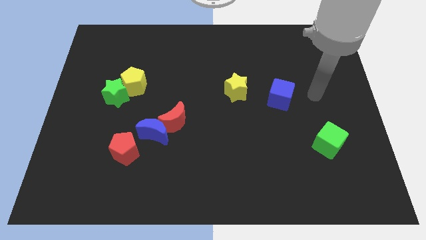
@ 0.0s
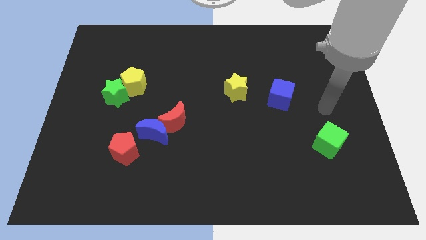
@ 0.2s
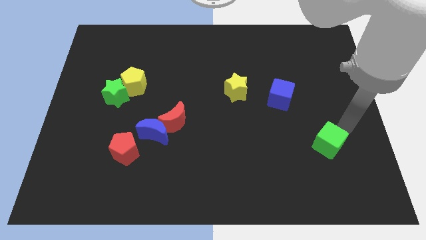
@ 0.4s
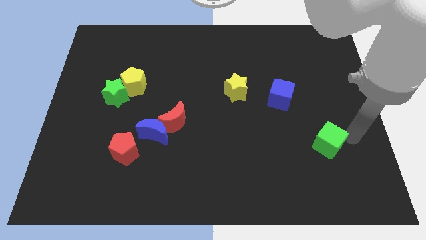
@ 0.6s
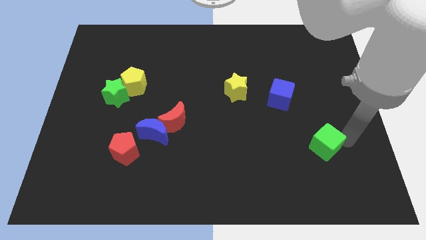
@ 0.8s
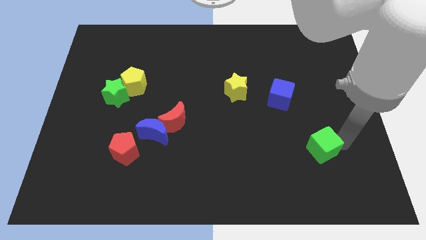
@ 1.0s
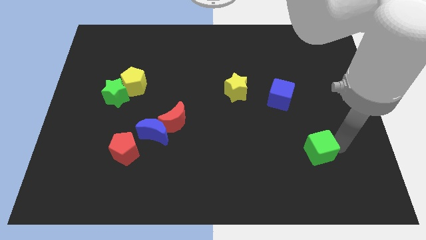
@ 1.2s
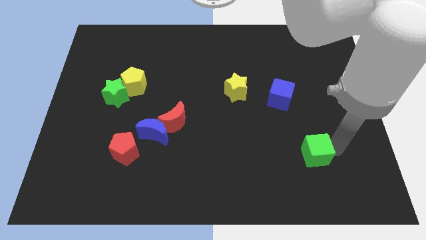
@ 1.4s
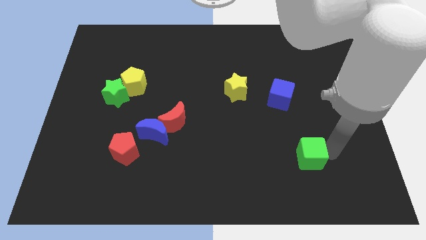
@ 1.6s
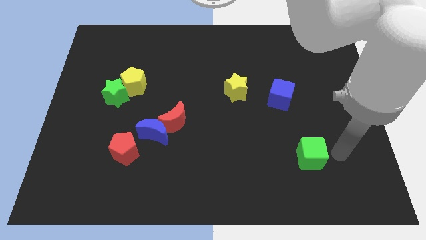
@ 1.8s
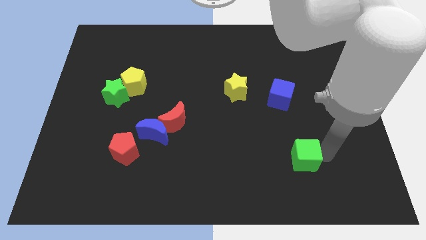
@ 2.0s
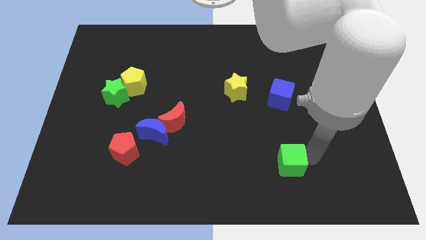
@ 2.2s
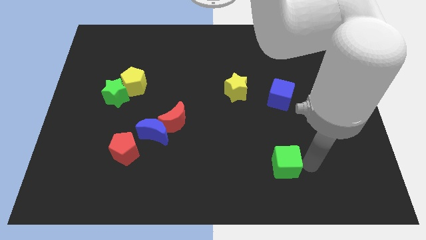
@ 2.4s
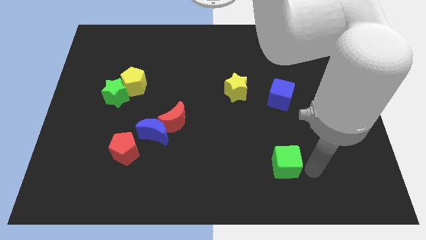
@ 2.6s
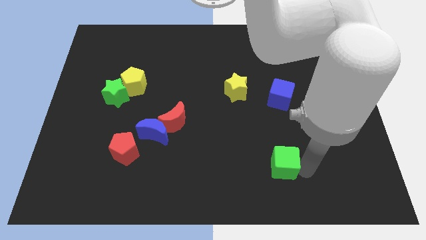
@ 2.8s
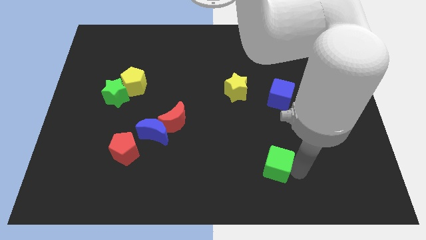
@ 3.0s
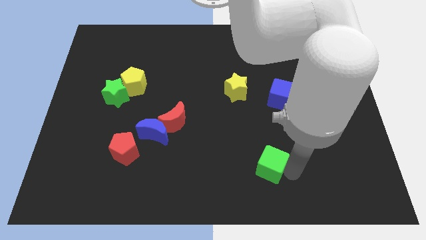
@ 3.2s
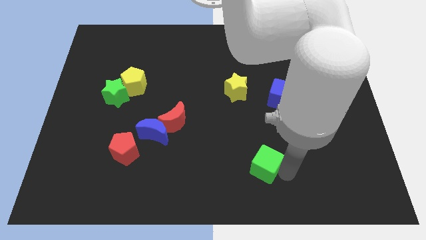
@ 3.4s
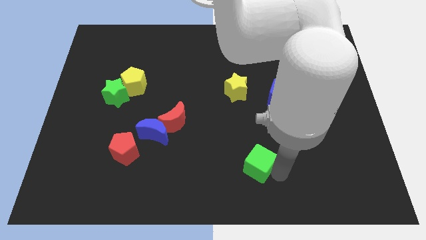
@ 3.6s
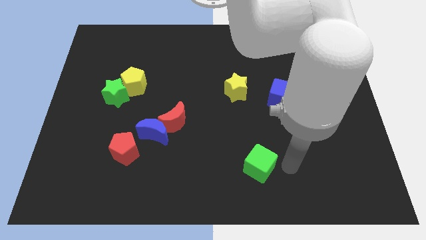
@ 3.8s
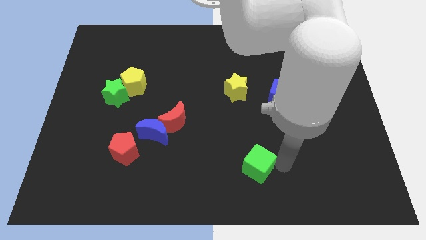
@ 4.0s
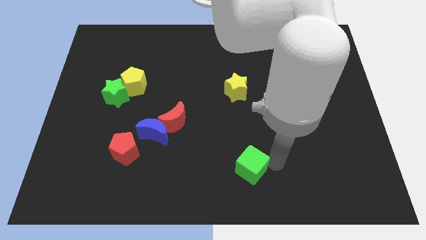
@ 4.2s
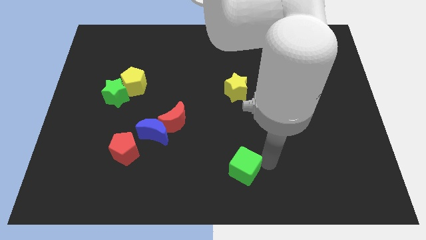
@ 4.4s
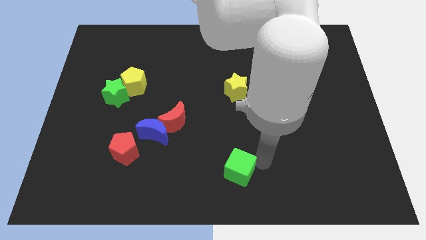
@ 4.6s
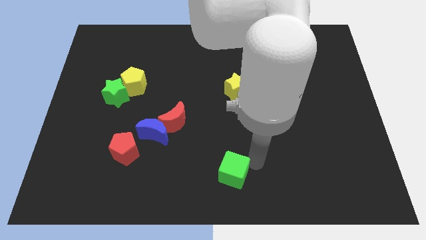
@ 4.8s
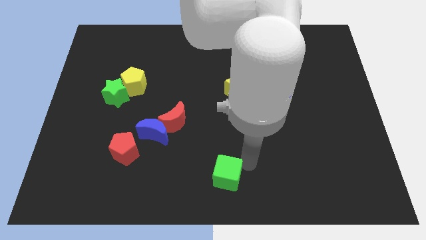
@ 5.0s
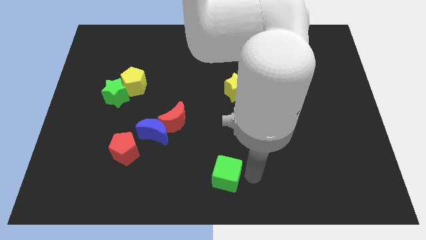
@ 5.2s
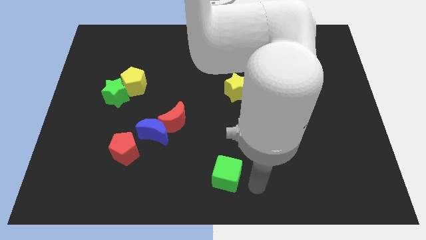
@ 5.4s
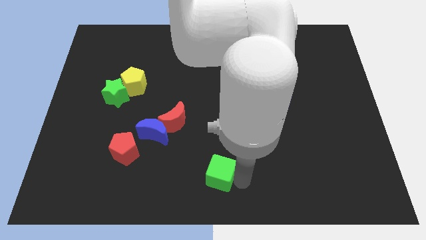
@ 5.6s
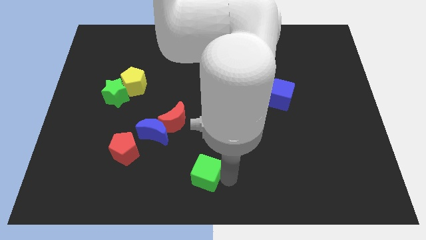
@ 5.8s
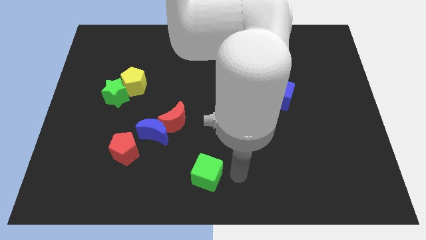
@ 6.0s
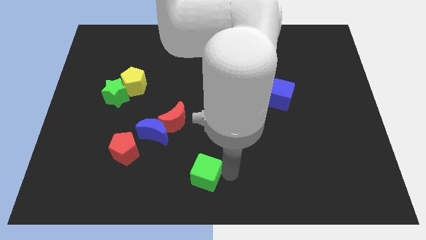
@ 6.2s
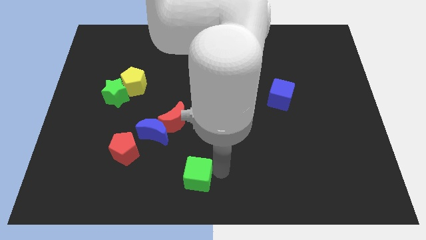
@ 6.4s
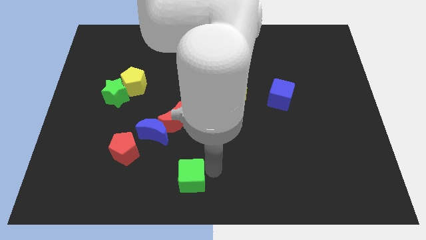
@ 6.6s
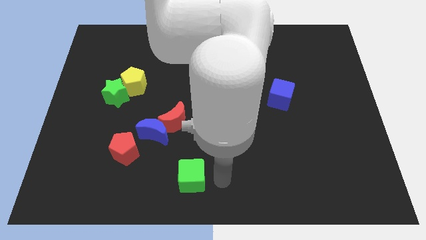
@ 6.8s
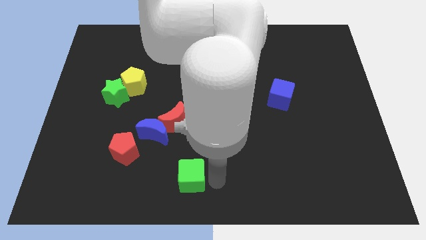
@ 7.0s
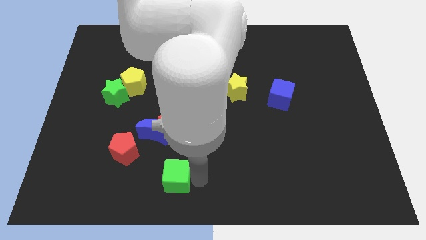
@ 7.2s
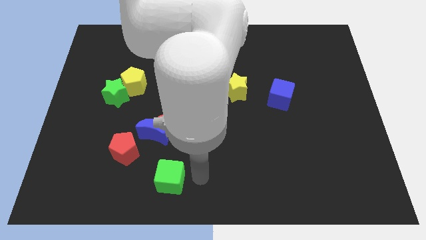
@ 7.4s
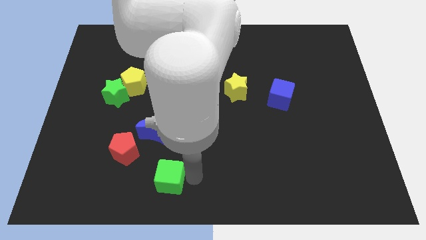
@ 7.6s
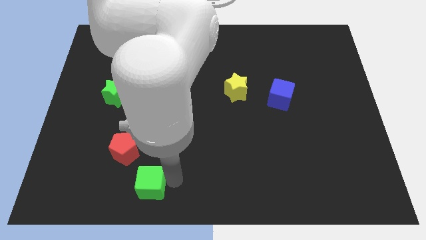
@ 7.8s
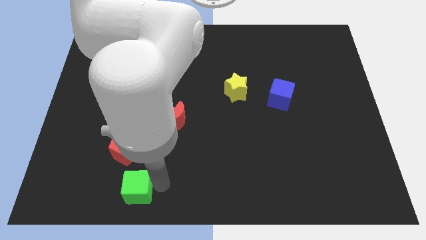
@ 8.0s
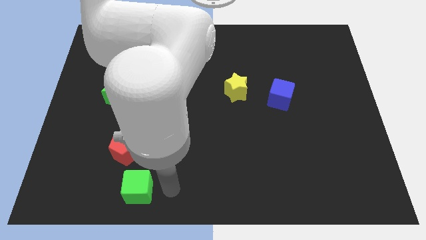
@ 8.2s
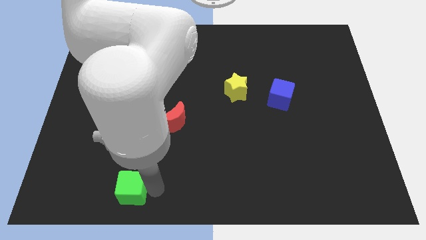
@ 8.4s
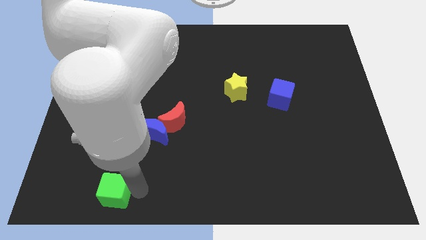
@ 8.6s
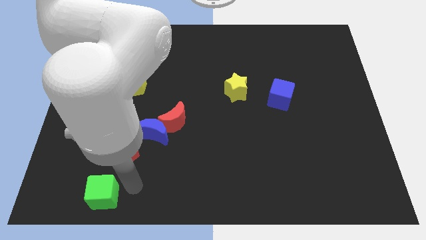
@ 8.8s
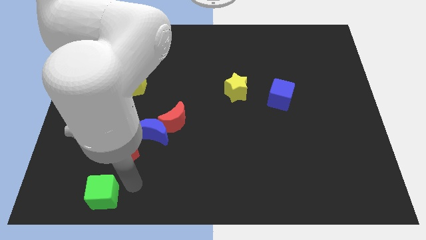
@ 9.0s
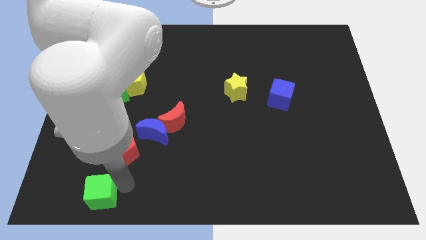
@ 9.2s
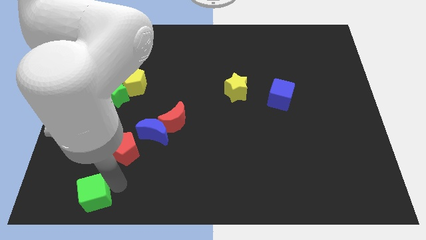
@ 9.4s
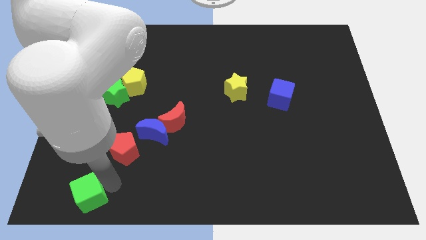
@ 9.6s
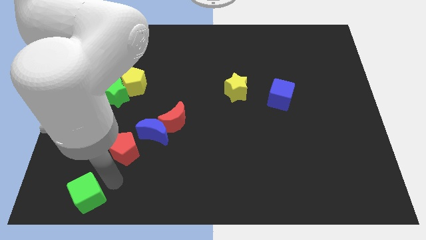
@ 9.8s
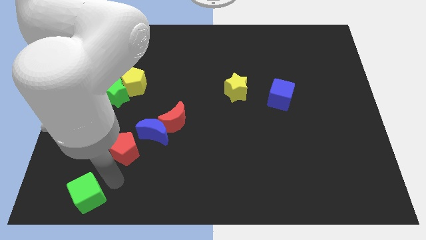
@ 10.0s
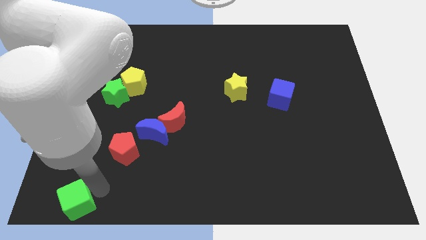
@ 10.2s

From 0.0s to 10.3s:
push the green cube to the bottom left corner

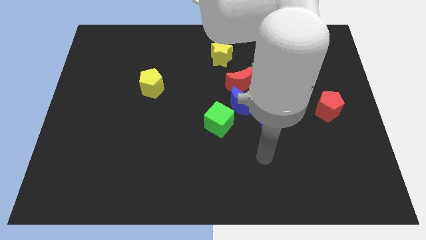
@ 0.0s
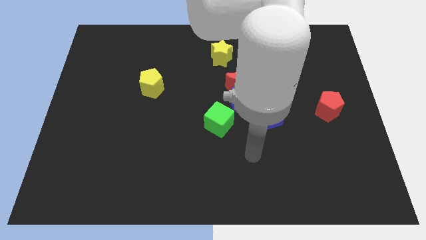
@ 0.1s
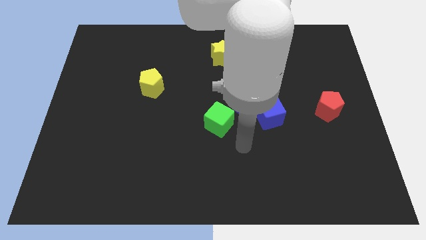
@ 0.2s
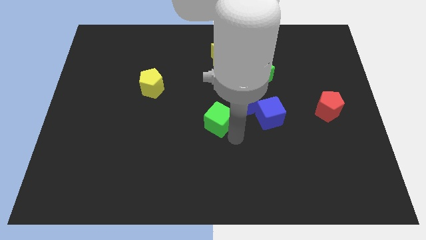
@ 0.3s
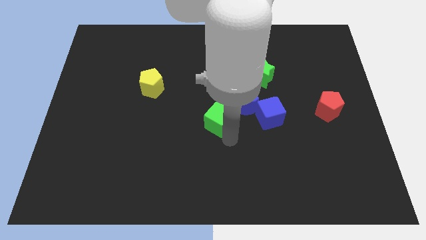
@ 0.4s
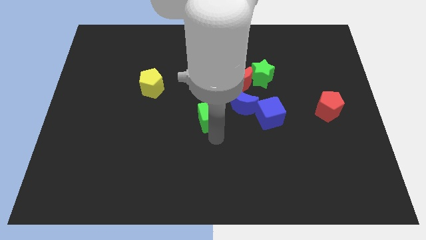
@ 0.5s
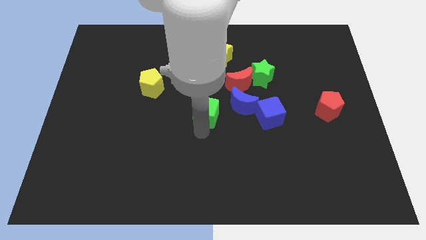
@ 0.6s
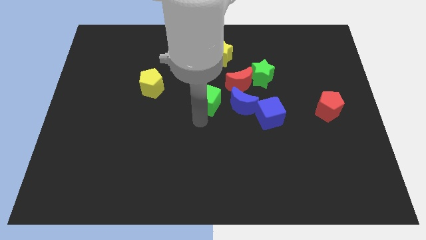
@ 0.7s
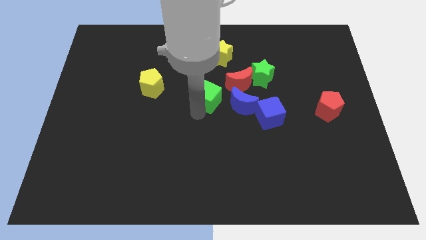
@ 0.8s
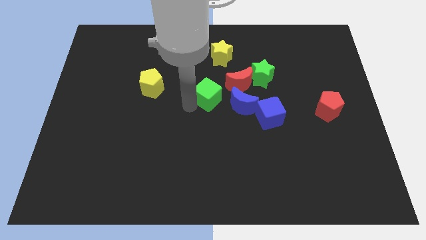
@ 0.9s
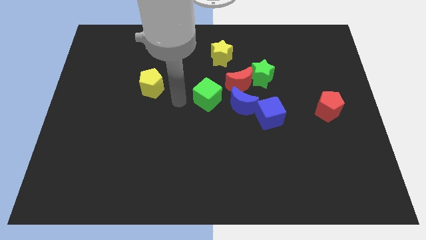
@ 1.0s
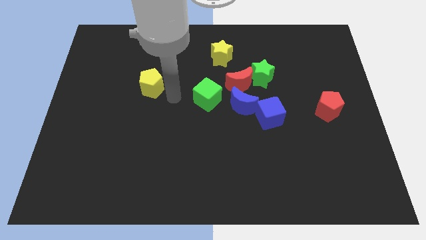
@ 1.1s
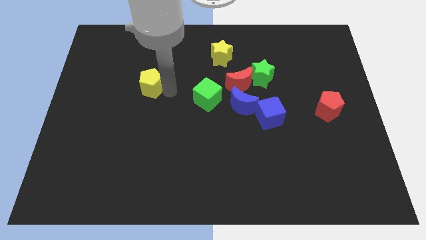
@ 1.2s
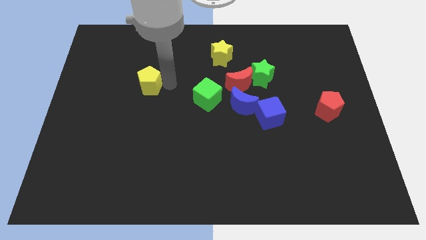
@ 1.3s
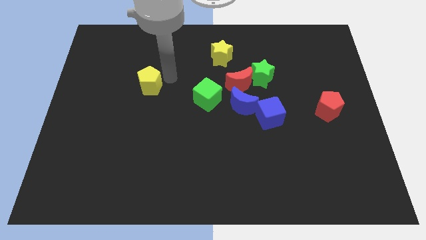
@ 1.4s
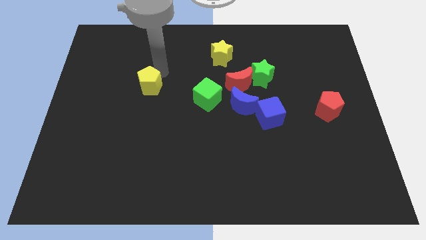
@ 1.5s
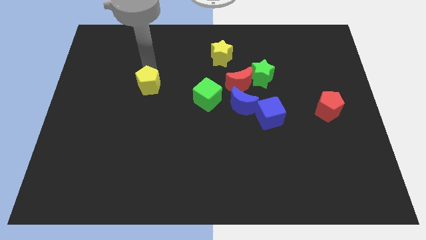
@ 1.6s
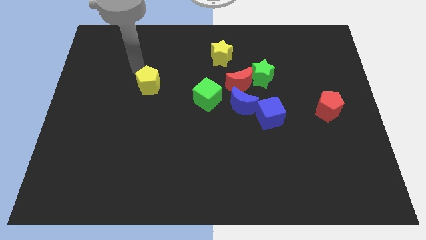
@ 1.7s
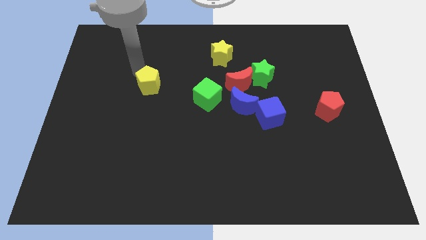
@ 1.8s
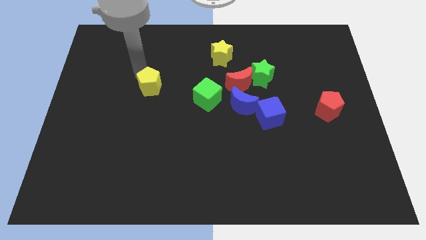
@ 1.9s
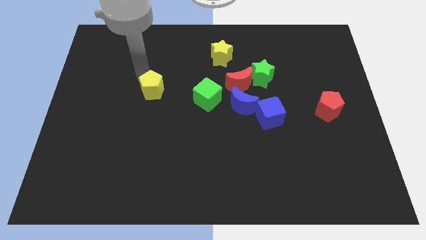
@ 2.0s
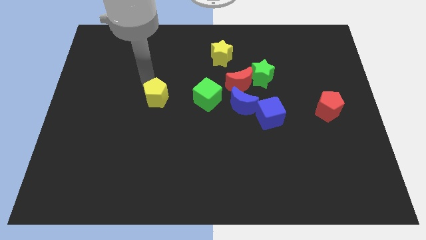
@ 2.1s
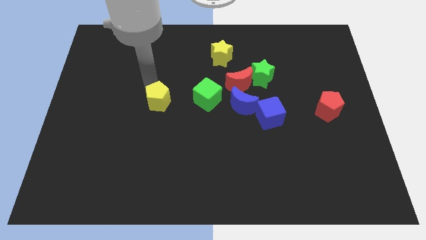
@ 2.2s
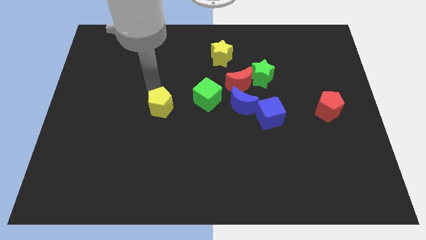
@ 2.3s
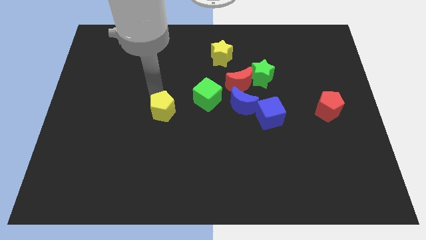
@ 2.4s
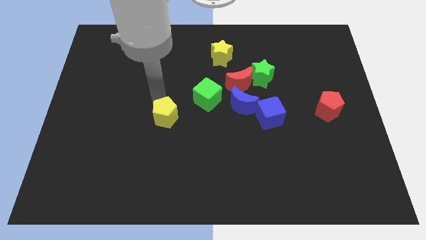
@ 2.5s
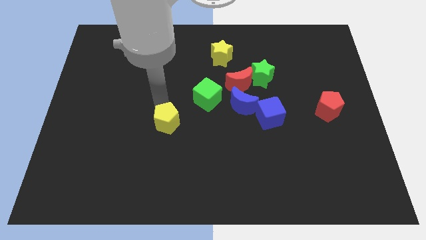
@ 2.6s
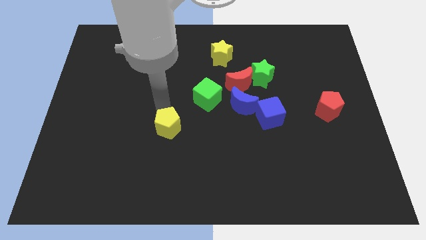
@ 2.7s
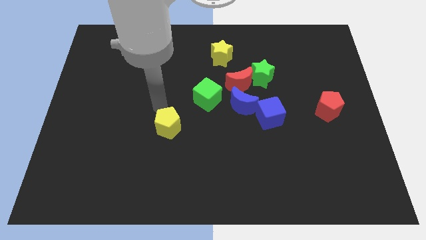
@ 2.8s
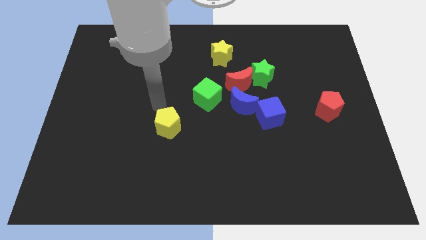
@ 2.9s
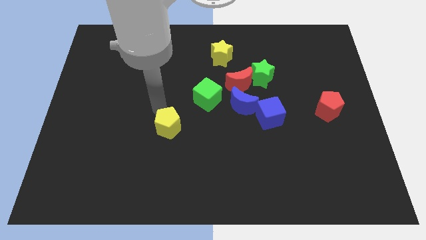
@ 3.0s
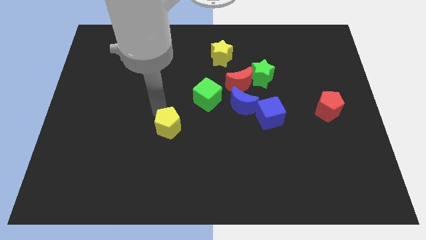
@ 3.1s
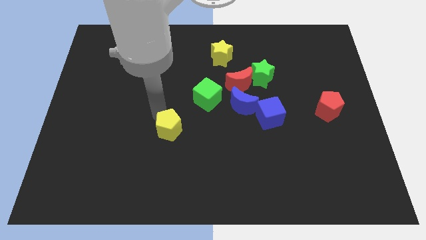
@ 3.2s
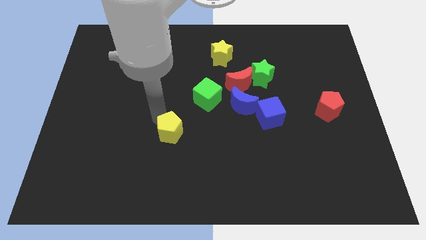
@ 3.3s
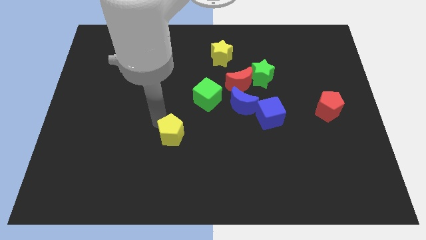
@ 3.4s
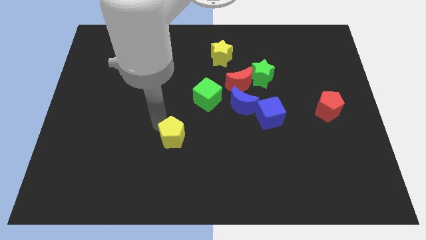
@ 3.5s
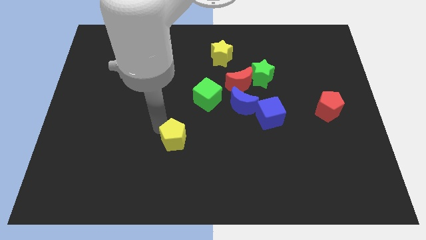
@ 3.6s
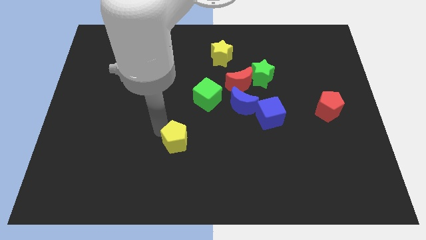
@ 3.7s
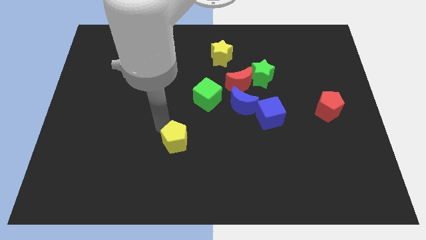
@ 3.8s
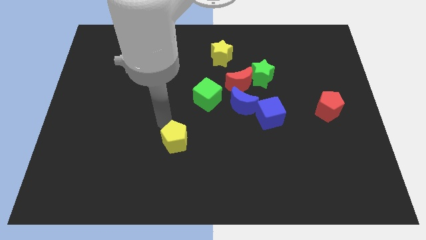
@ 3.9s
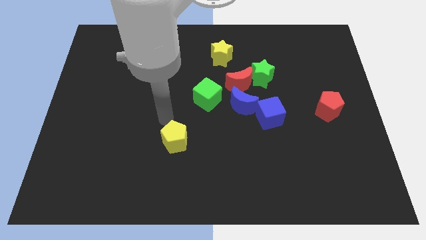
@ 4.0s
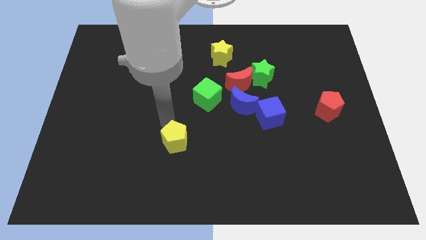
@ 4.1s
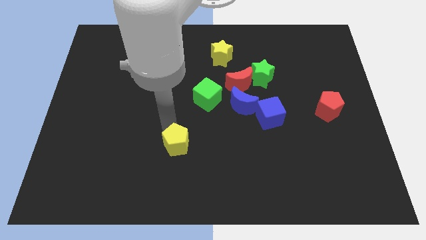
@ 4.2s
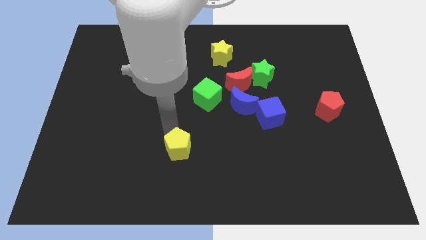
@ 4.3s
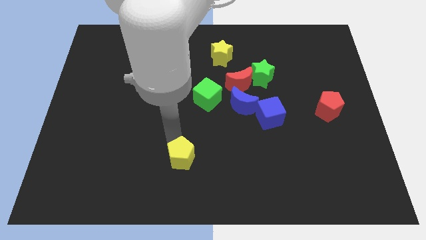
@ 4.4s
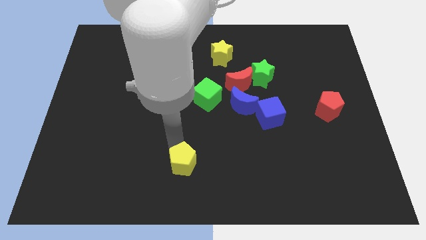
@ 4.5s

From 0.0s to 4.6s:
put the yellow pentagon to the bottom
